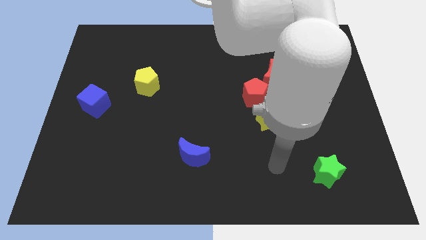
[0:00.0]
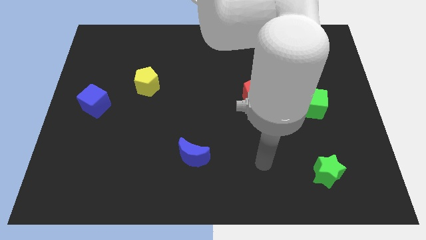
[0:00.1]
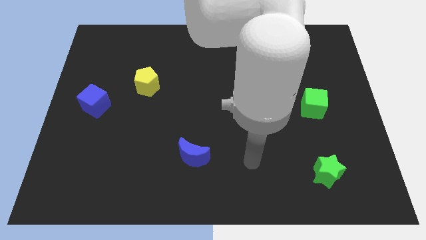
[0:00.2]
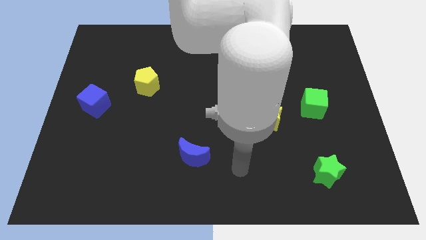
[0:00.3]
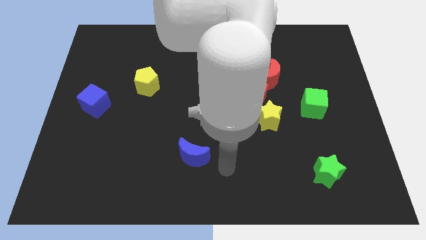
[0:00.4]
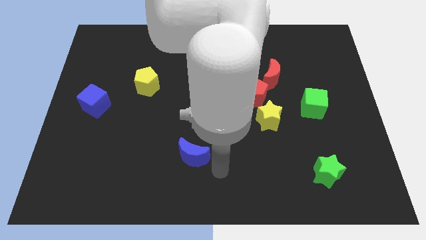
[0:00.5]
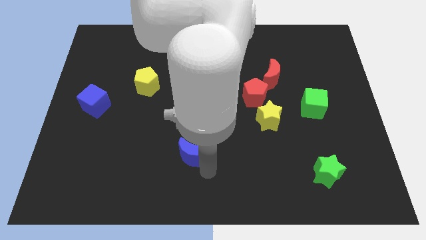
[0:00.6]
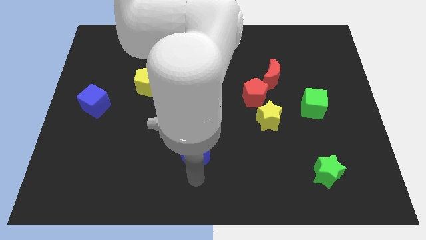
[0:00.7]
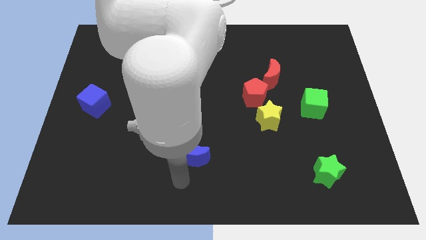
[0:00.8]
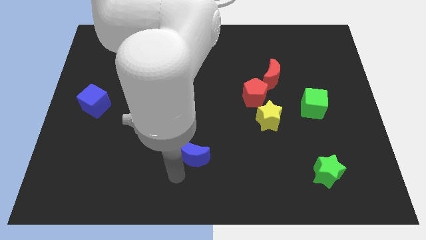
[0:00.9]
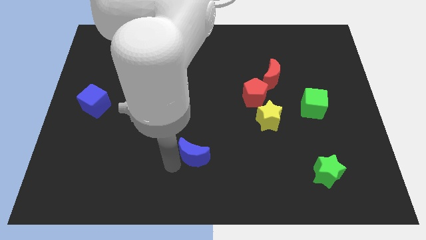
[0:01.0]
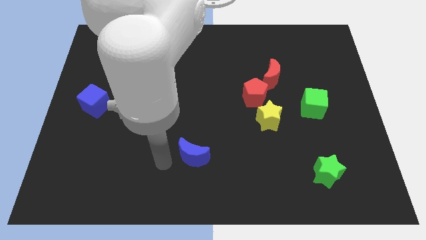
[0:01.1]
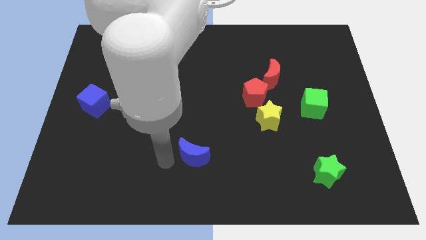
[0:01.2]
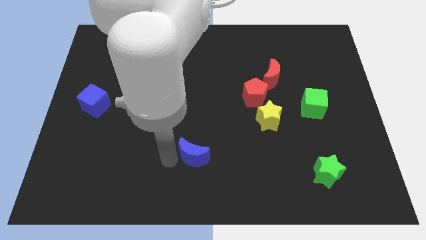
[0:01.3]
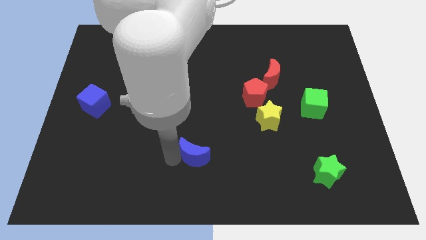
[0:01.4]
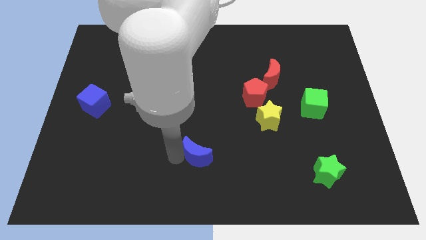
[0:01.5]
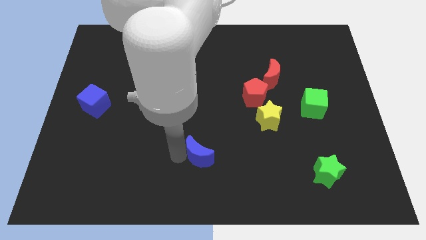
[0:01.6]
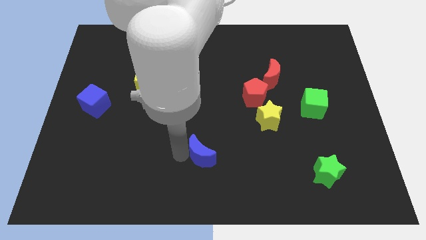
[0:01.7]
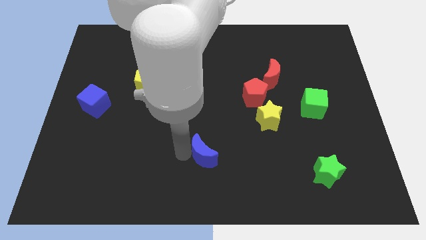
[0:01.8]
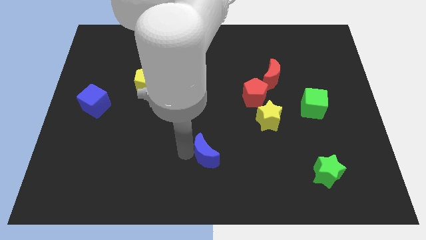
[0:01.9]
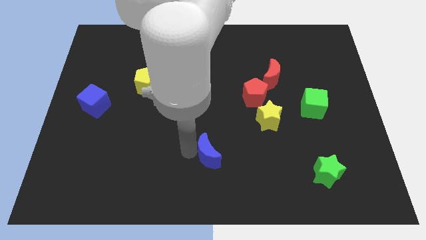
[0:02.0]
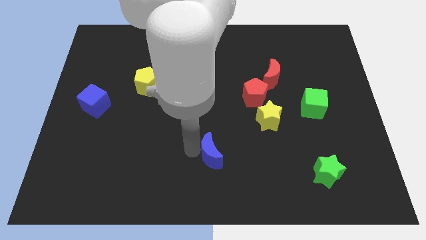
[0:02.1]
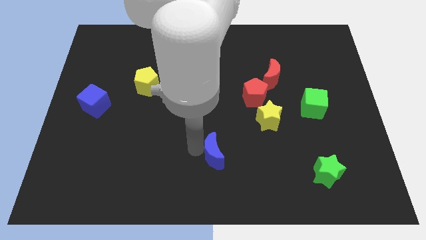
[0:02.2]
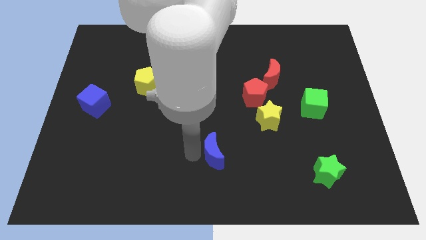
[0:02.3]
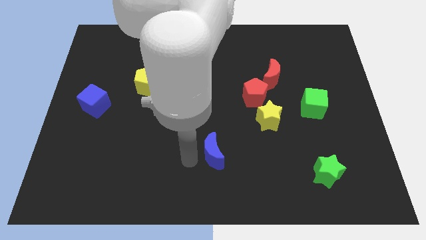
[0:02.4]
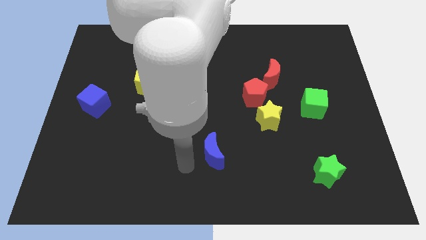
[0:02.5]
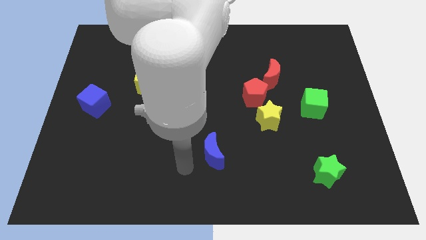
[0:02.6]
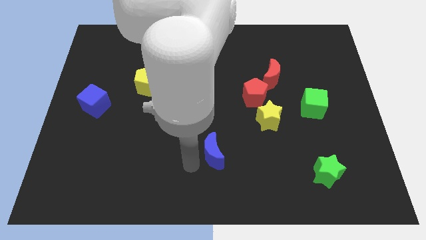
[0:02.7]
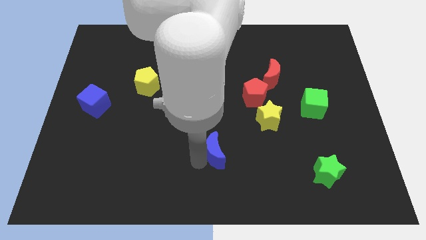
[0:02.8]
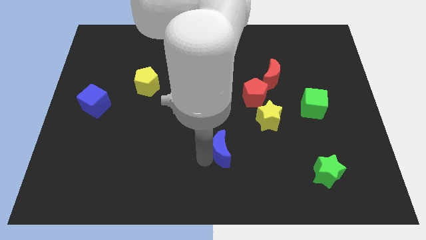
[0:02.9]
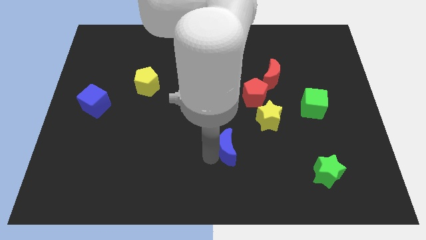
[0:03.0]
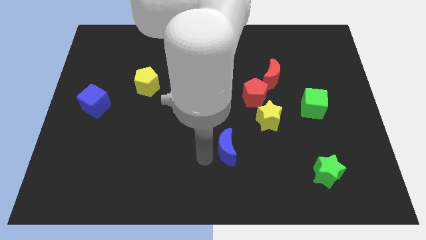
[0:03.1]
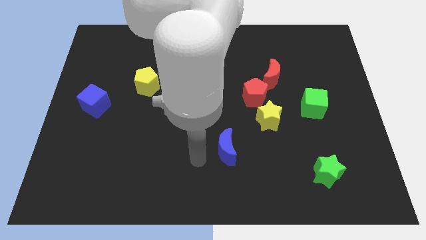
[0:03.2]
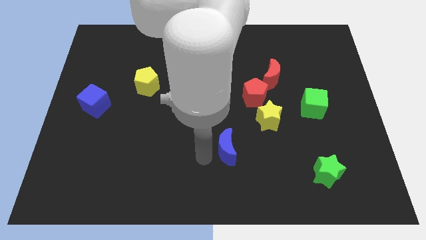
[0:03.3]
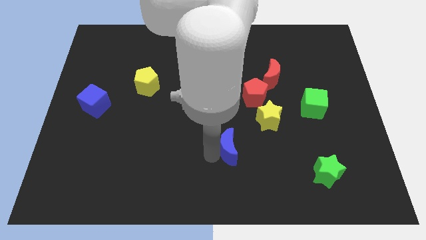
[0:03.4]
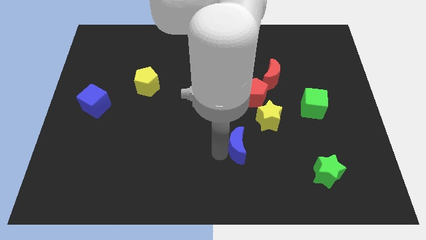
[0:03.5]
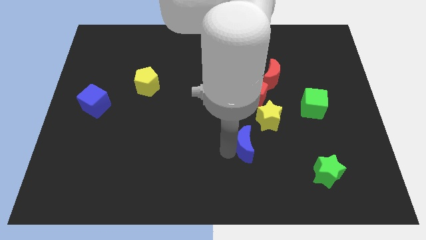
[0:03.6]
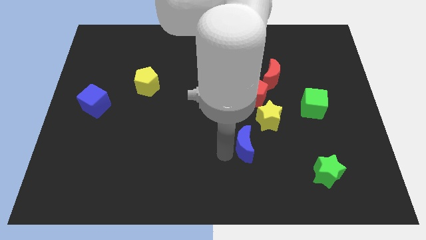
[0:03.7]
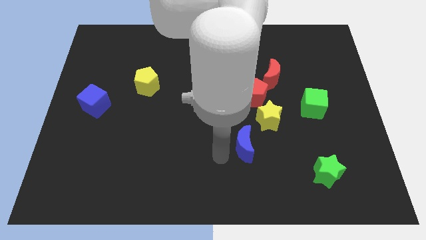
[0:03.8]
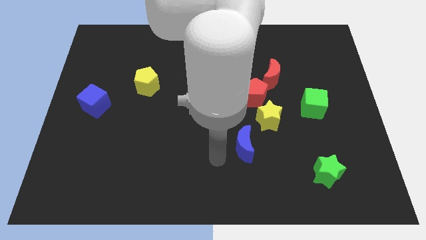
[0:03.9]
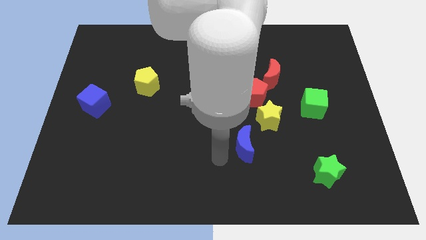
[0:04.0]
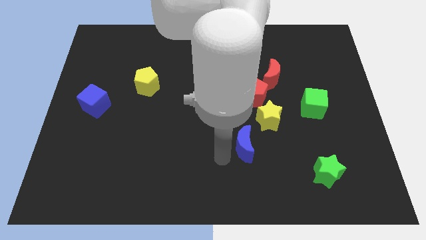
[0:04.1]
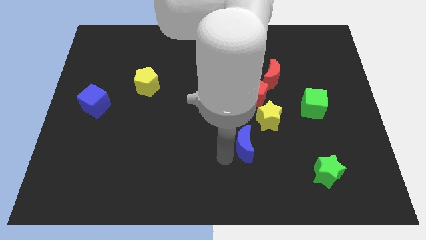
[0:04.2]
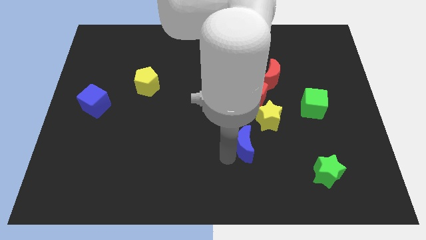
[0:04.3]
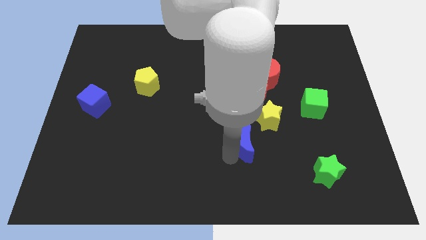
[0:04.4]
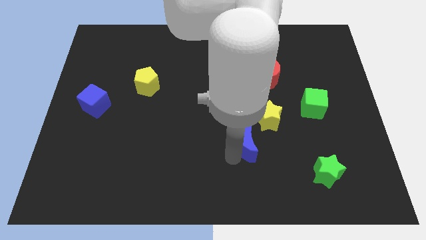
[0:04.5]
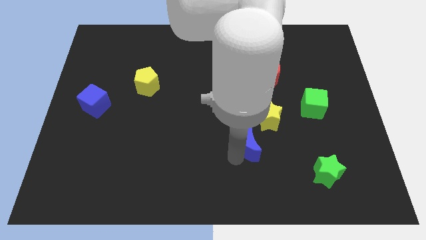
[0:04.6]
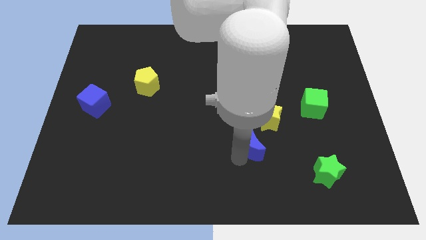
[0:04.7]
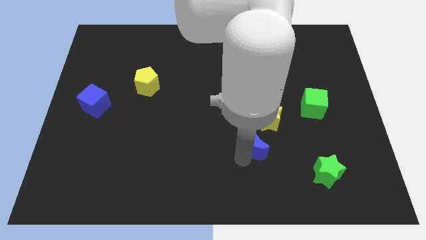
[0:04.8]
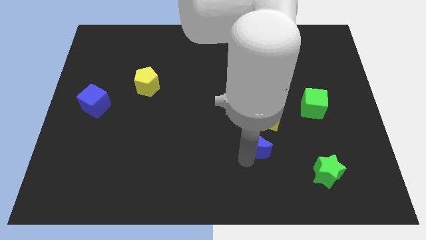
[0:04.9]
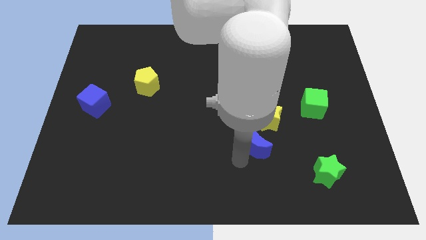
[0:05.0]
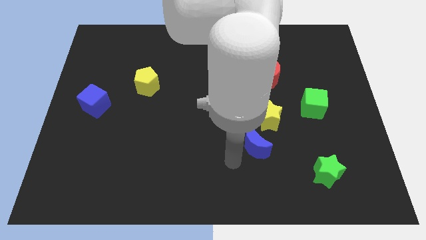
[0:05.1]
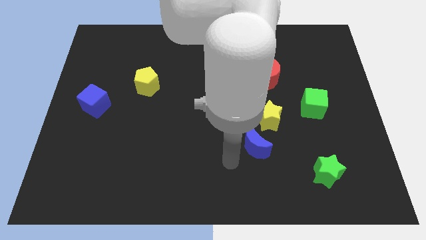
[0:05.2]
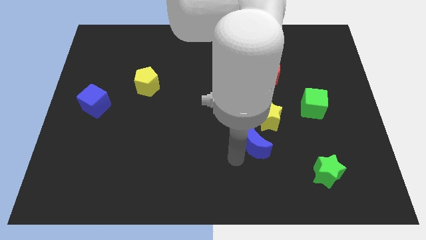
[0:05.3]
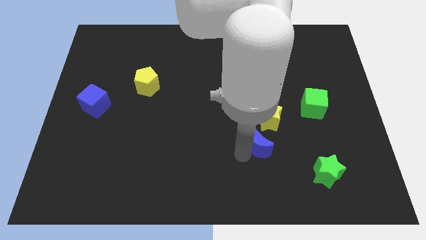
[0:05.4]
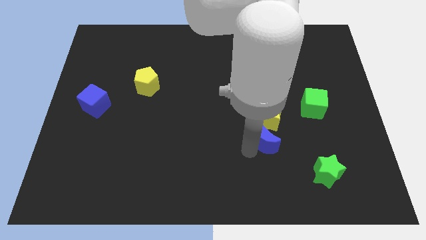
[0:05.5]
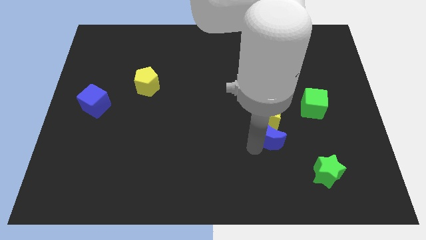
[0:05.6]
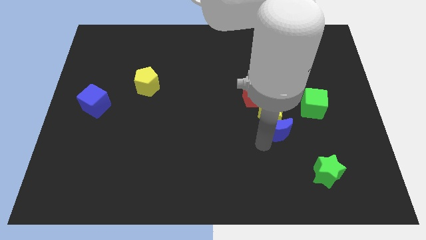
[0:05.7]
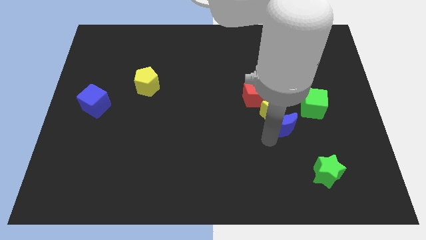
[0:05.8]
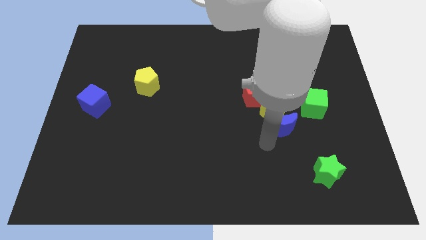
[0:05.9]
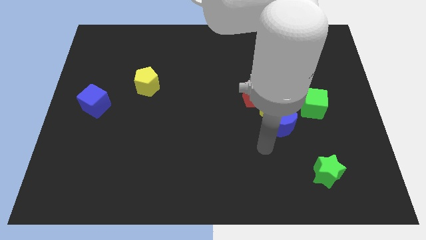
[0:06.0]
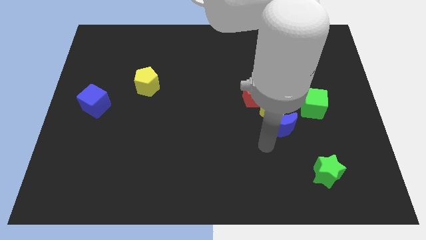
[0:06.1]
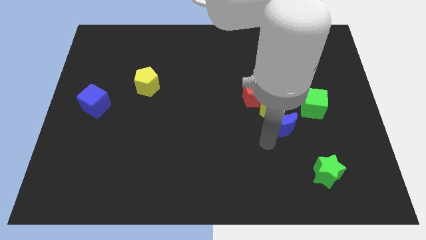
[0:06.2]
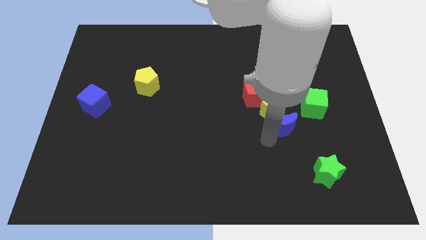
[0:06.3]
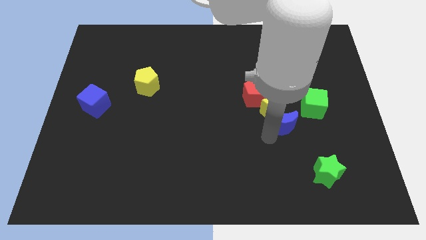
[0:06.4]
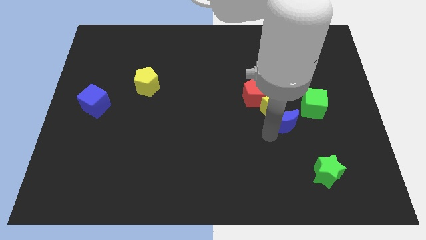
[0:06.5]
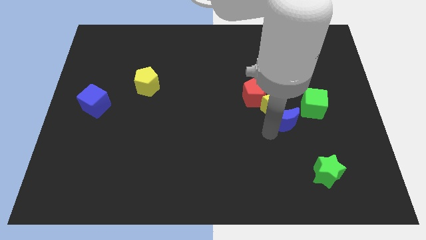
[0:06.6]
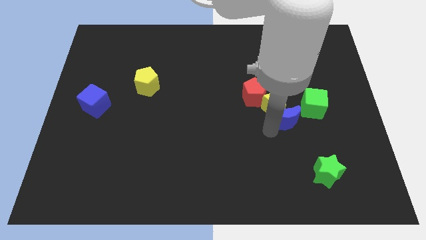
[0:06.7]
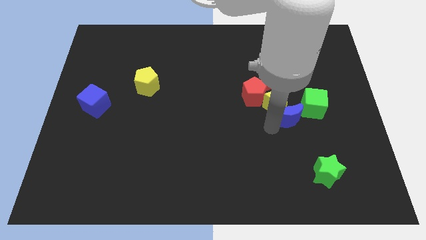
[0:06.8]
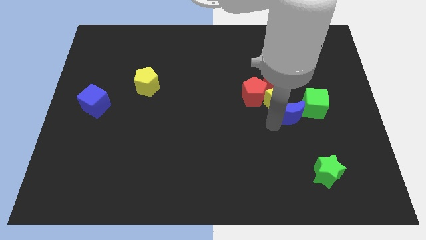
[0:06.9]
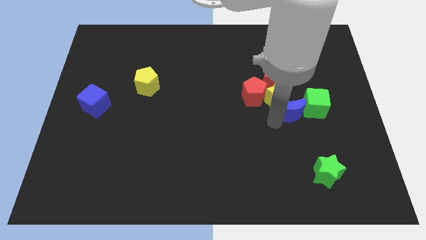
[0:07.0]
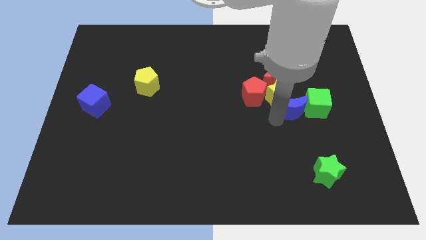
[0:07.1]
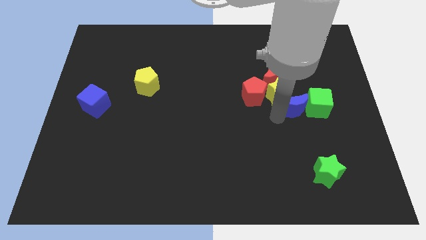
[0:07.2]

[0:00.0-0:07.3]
move the blue moon to the bottom right side of the red moon

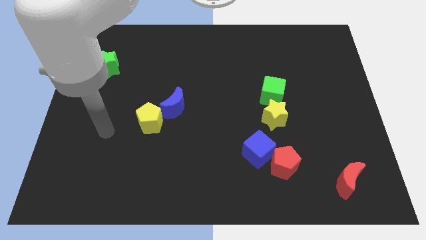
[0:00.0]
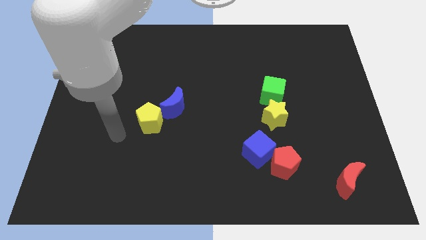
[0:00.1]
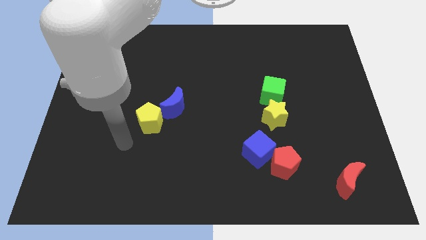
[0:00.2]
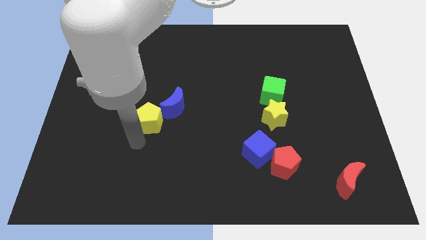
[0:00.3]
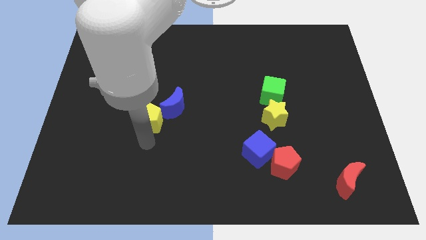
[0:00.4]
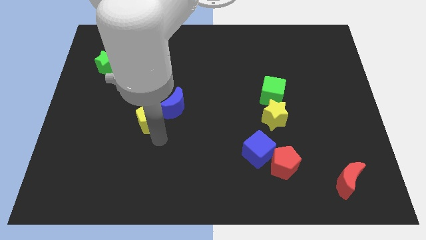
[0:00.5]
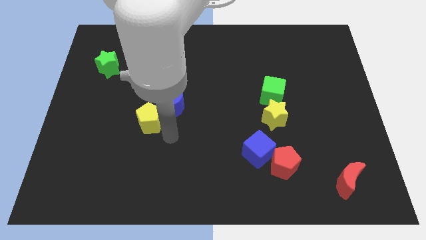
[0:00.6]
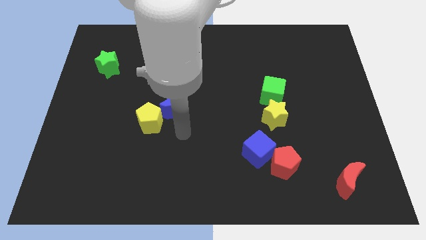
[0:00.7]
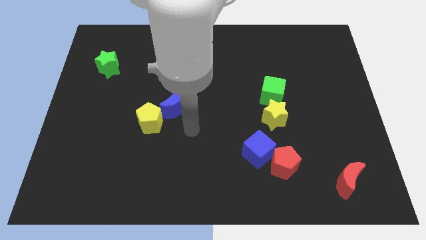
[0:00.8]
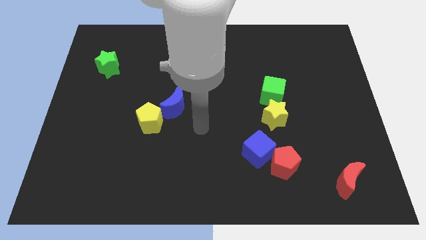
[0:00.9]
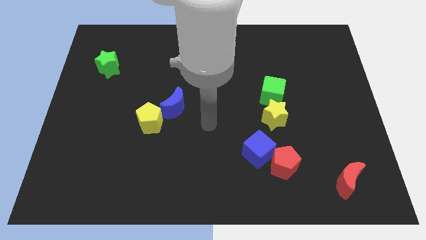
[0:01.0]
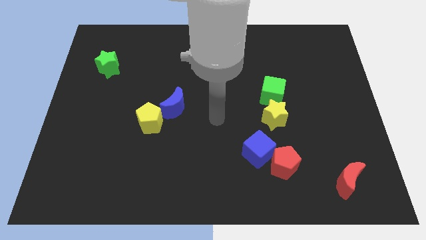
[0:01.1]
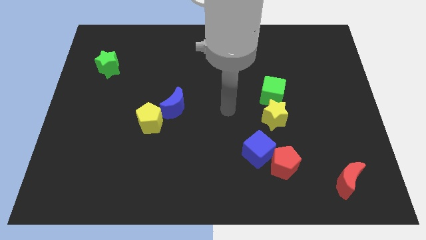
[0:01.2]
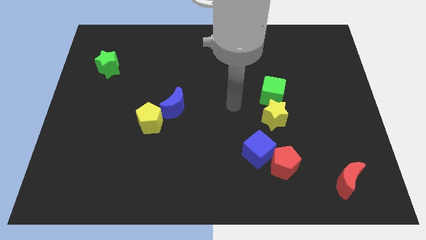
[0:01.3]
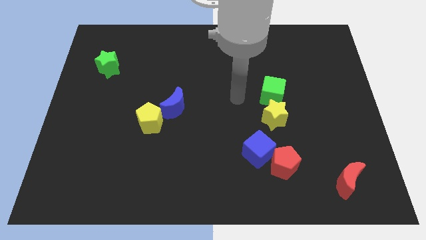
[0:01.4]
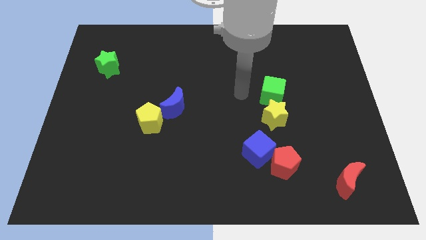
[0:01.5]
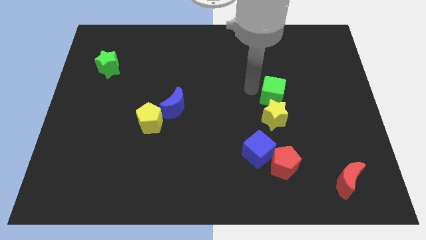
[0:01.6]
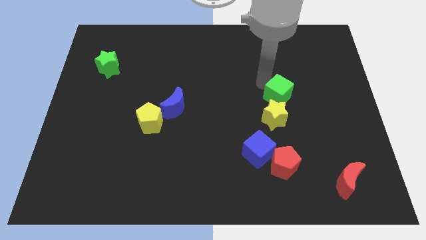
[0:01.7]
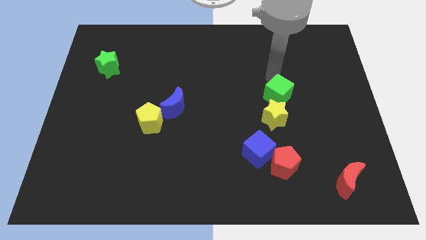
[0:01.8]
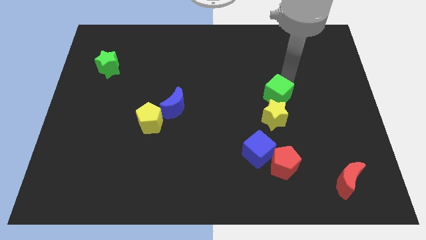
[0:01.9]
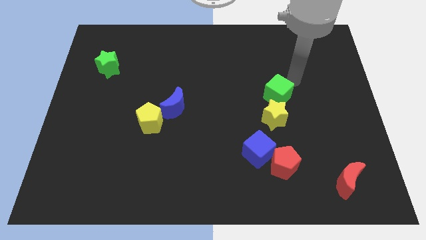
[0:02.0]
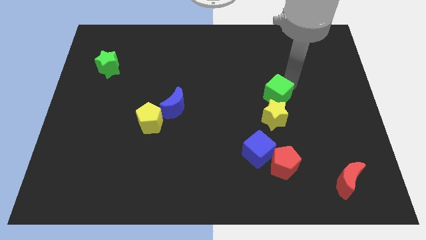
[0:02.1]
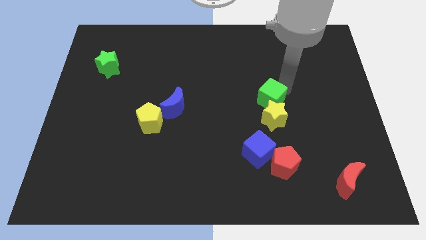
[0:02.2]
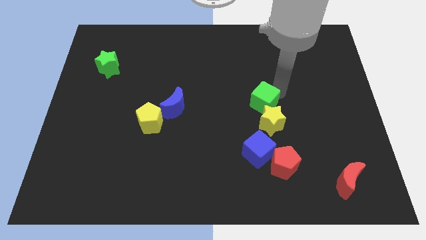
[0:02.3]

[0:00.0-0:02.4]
slide the green cube above the blue cube
